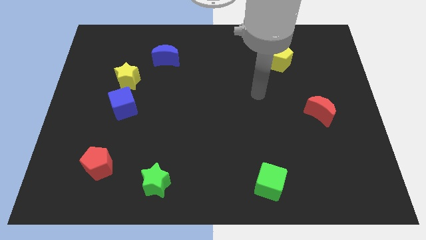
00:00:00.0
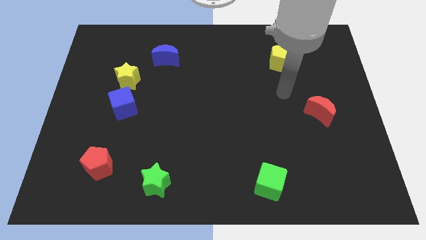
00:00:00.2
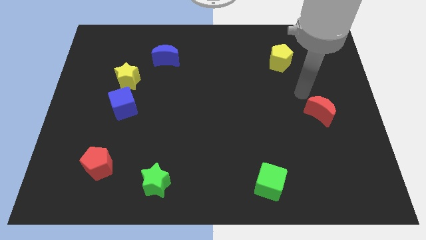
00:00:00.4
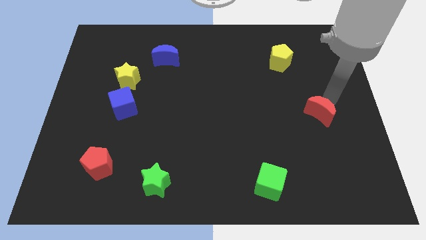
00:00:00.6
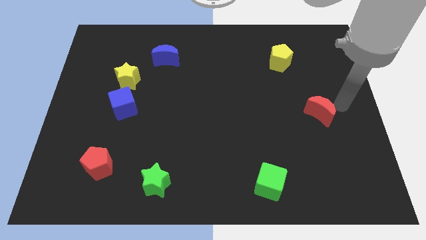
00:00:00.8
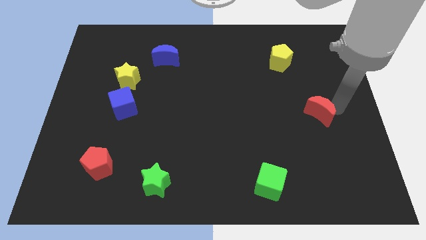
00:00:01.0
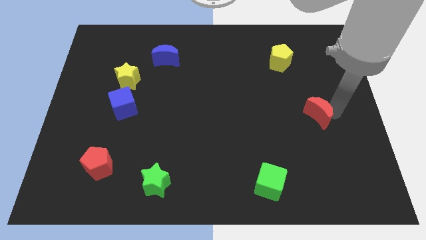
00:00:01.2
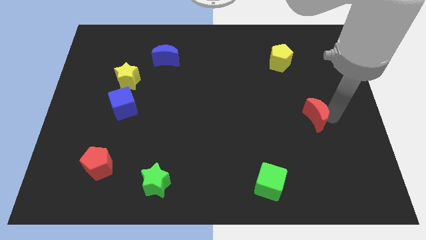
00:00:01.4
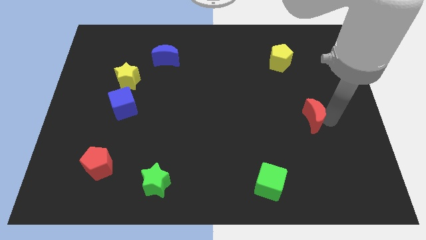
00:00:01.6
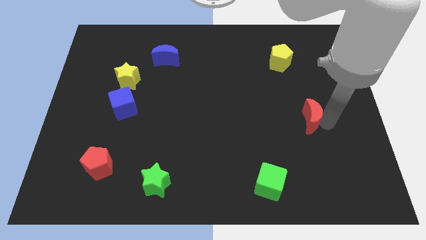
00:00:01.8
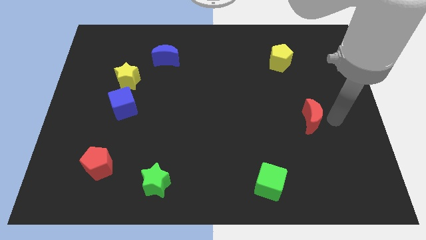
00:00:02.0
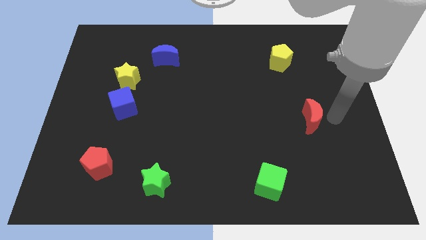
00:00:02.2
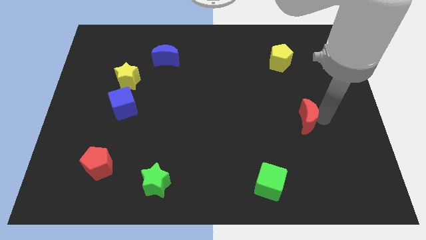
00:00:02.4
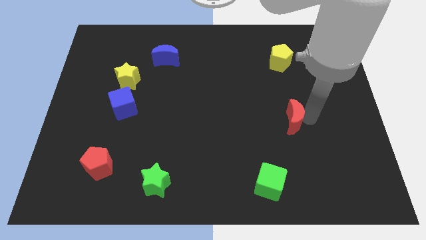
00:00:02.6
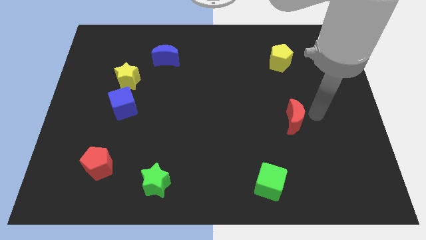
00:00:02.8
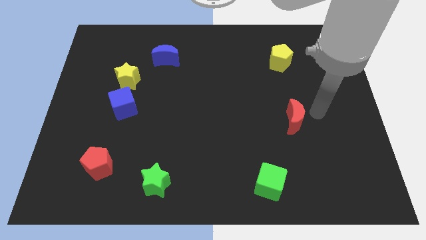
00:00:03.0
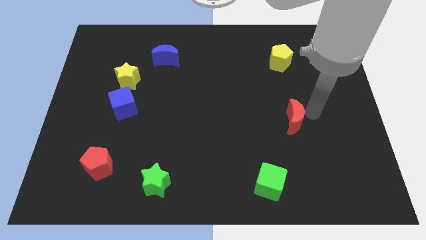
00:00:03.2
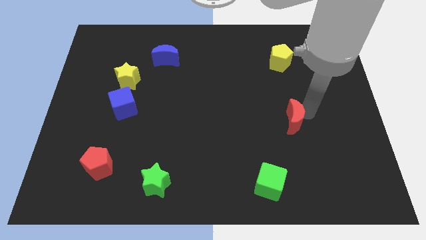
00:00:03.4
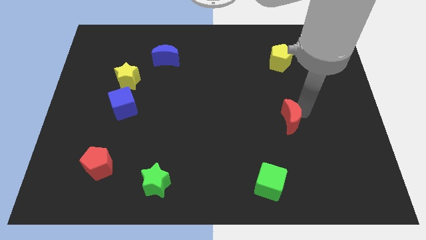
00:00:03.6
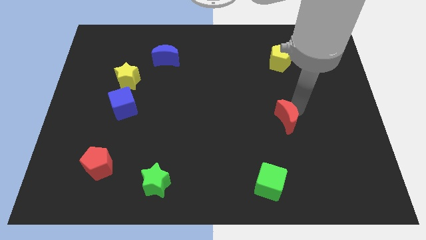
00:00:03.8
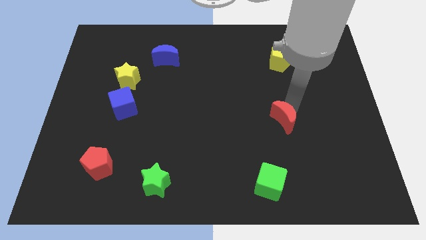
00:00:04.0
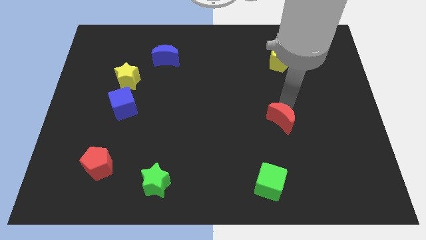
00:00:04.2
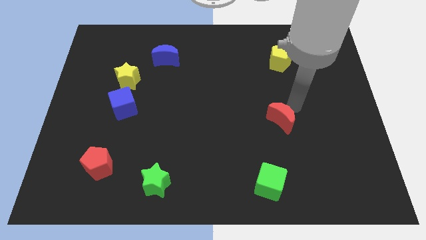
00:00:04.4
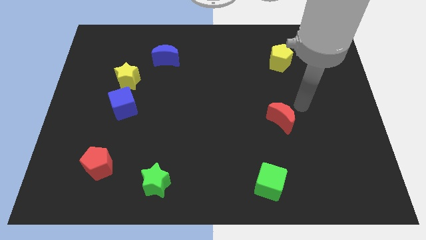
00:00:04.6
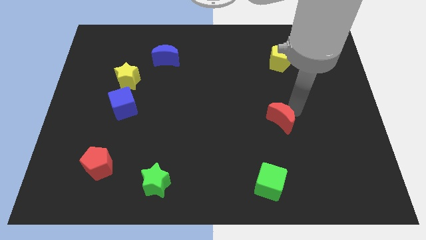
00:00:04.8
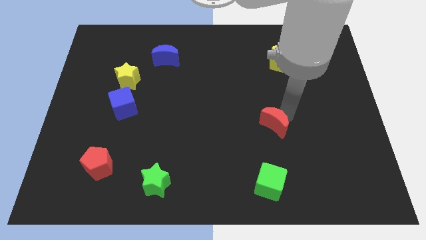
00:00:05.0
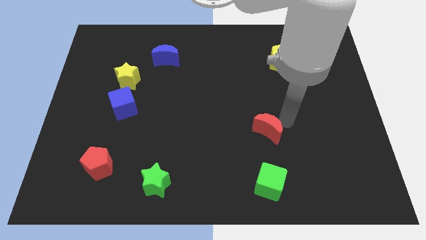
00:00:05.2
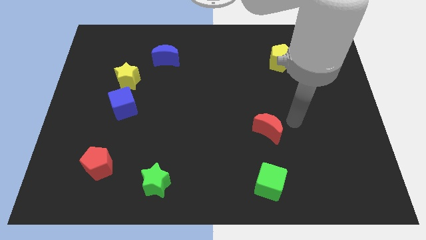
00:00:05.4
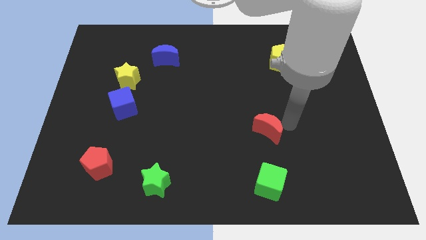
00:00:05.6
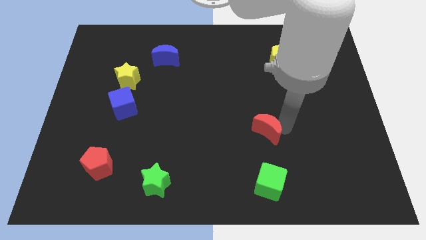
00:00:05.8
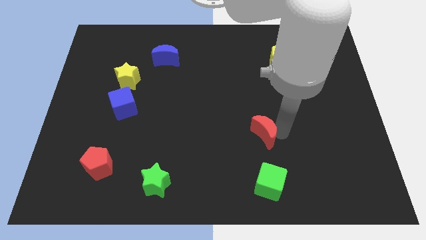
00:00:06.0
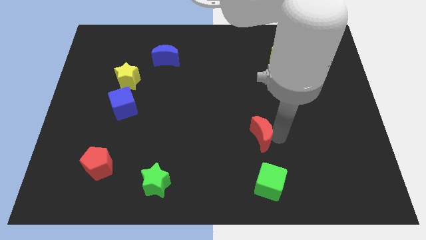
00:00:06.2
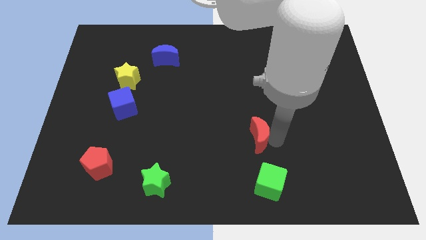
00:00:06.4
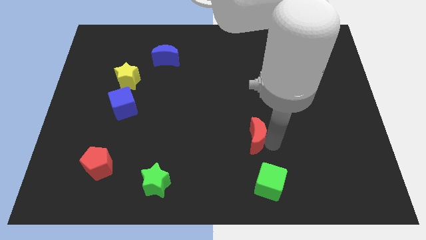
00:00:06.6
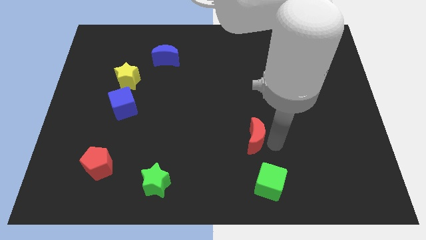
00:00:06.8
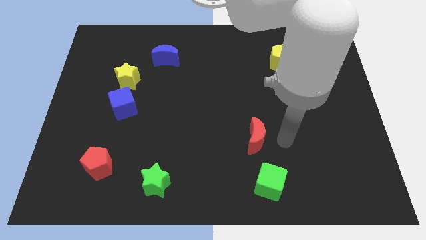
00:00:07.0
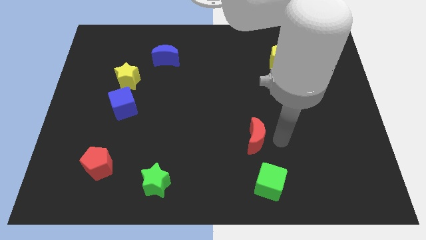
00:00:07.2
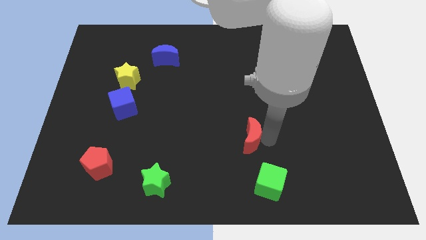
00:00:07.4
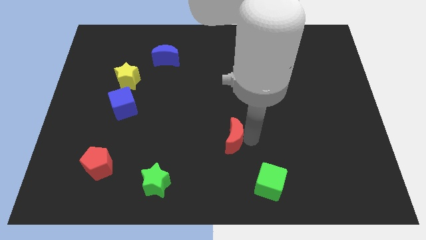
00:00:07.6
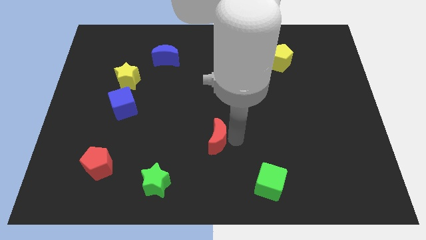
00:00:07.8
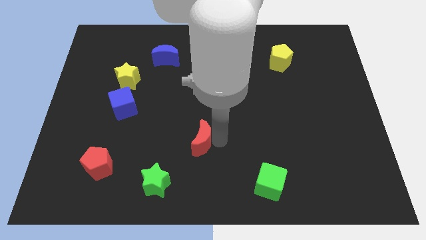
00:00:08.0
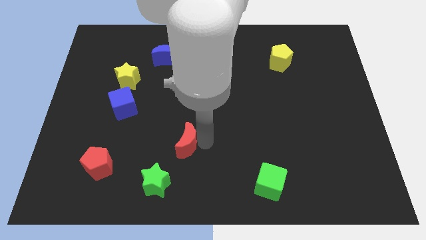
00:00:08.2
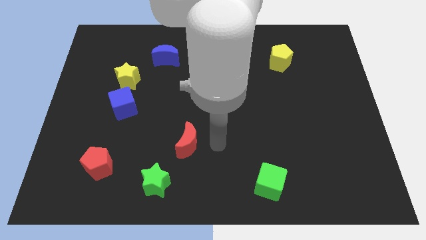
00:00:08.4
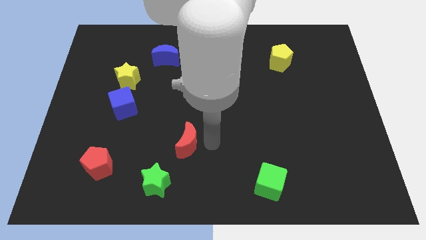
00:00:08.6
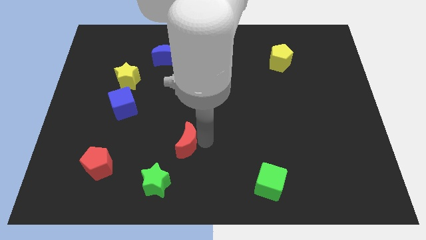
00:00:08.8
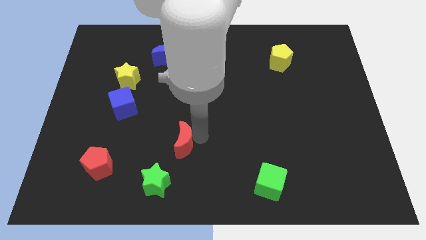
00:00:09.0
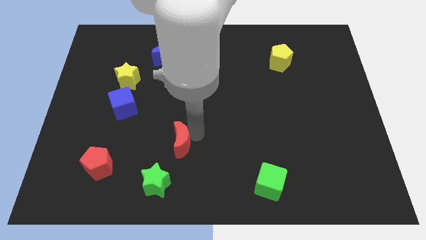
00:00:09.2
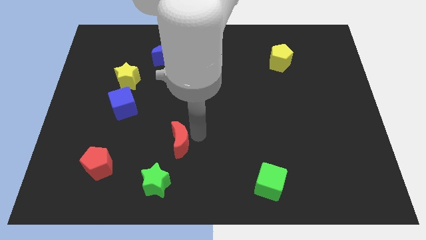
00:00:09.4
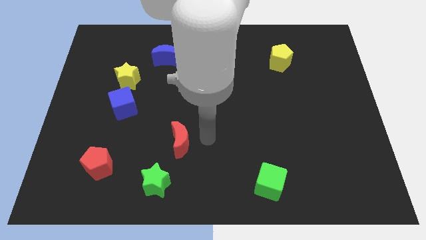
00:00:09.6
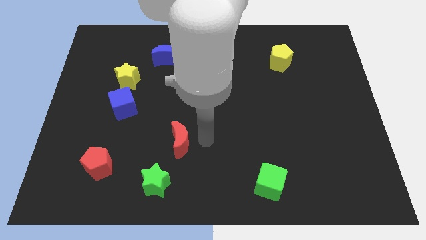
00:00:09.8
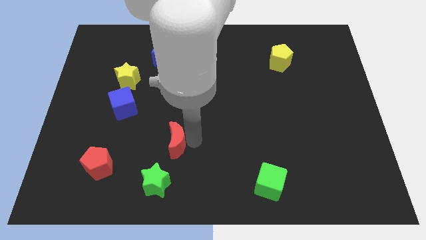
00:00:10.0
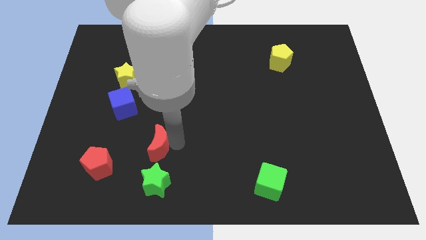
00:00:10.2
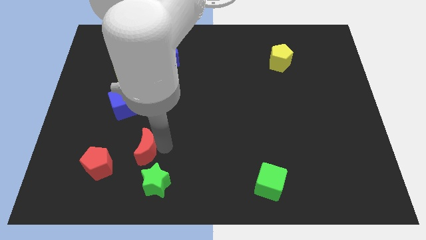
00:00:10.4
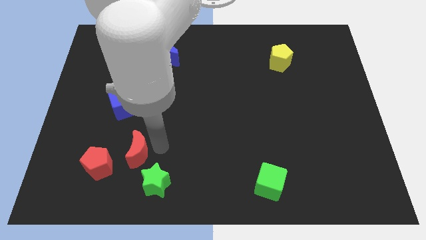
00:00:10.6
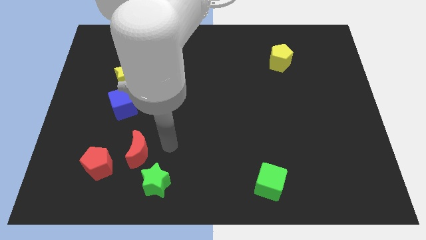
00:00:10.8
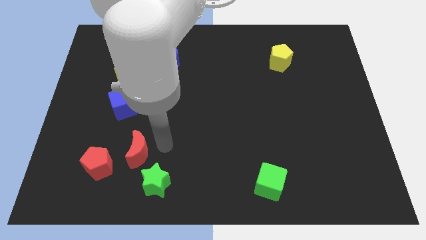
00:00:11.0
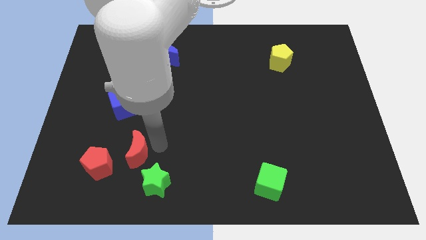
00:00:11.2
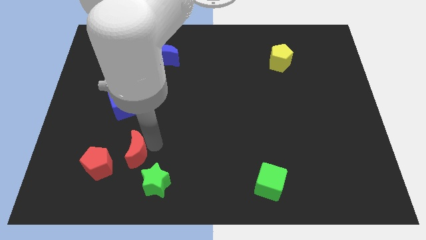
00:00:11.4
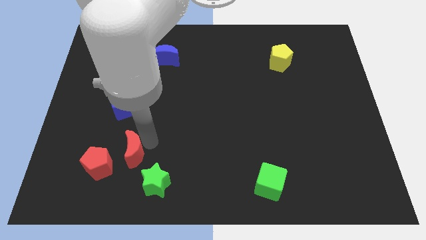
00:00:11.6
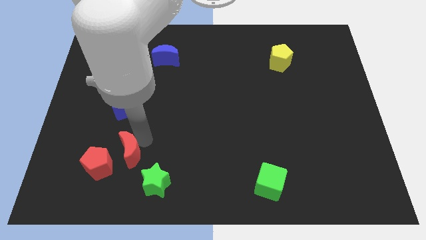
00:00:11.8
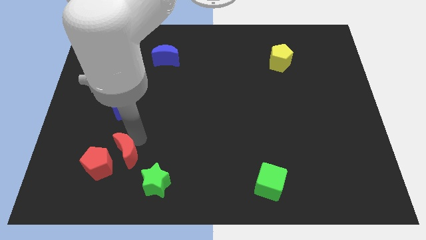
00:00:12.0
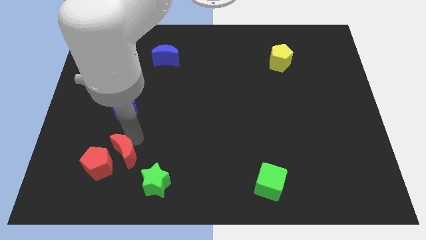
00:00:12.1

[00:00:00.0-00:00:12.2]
move the red moon to the red pentagon
